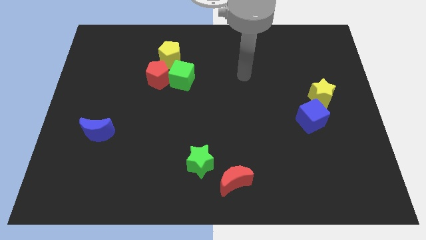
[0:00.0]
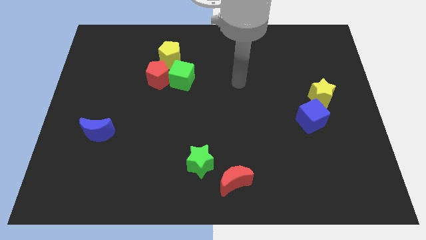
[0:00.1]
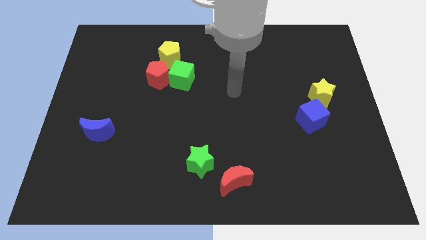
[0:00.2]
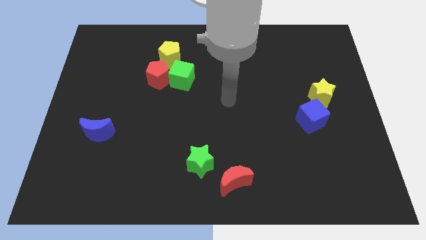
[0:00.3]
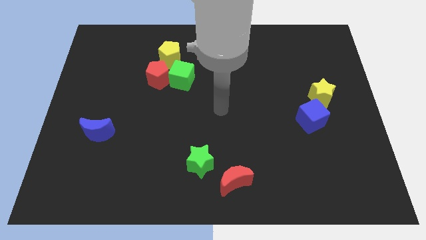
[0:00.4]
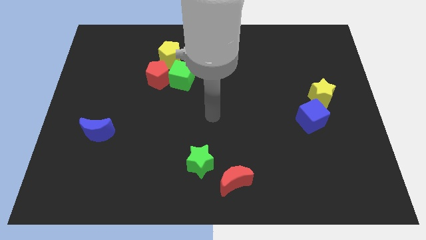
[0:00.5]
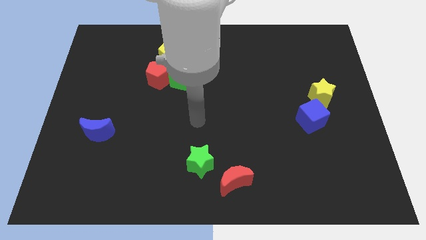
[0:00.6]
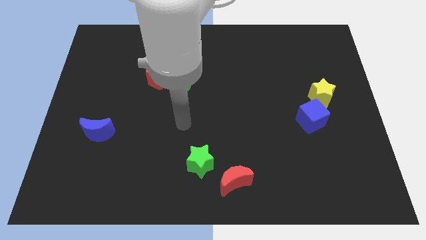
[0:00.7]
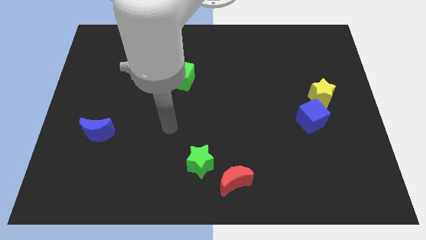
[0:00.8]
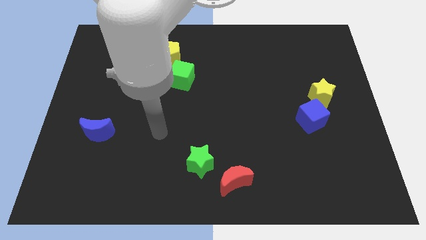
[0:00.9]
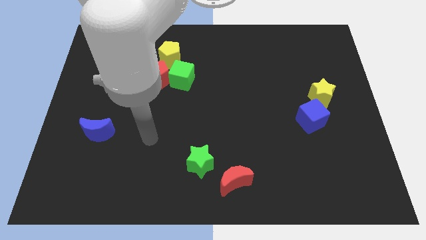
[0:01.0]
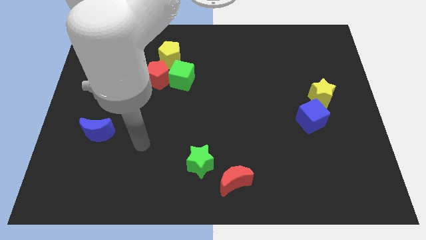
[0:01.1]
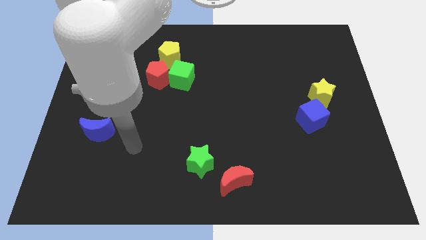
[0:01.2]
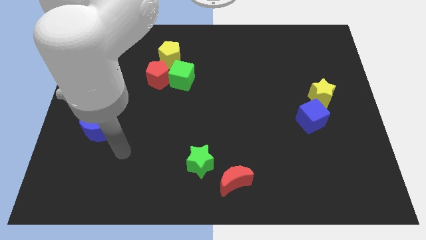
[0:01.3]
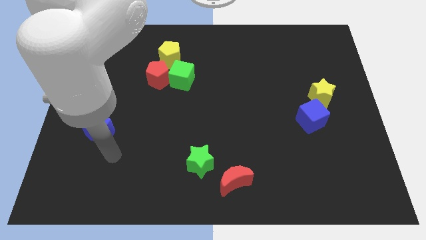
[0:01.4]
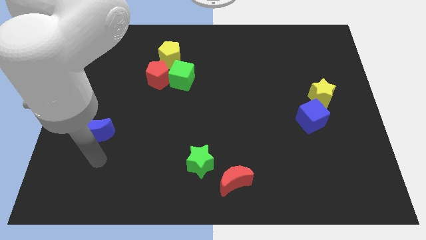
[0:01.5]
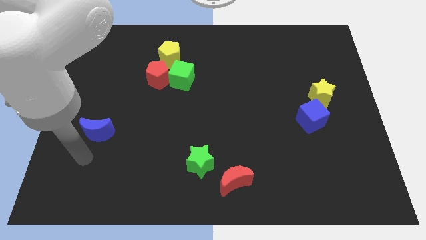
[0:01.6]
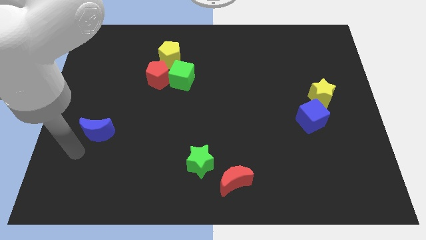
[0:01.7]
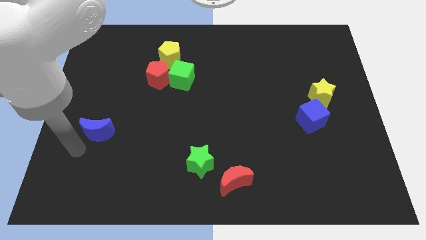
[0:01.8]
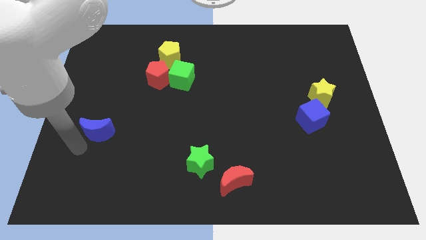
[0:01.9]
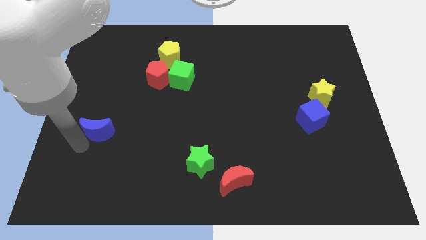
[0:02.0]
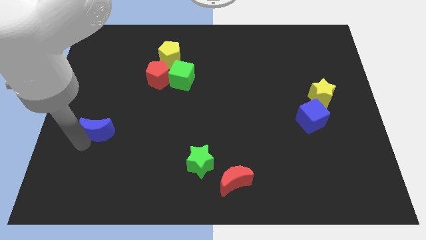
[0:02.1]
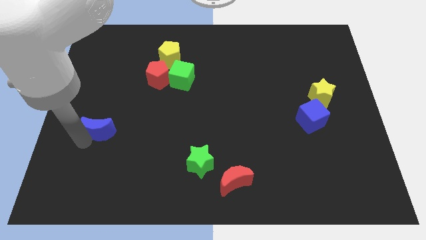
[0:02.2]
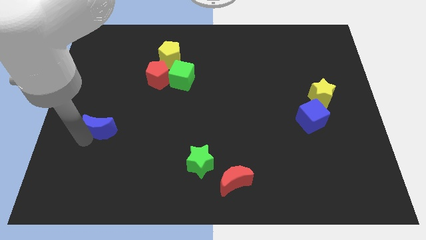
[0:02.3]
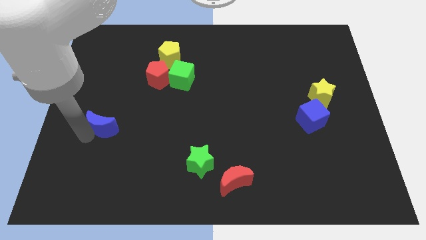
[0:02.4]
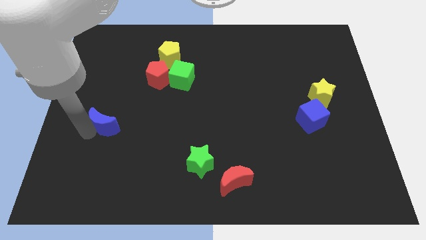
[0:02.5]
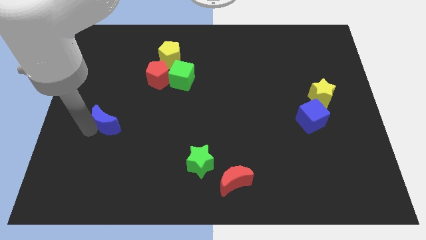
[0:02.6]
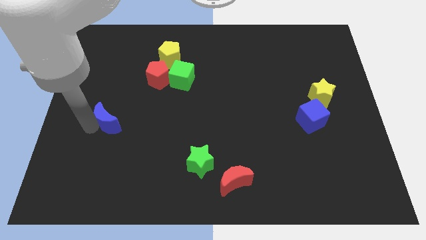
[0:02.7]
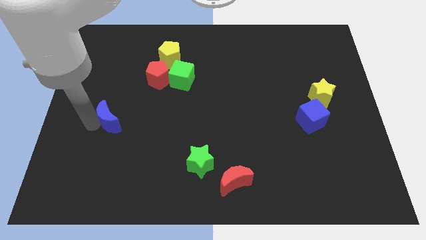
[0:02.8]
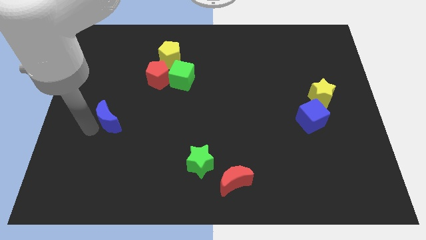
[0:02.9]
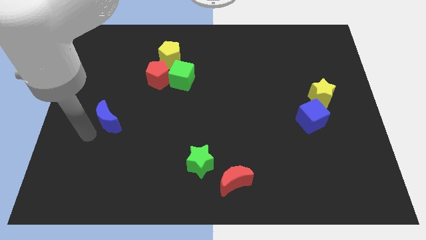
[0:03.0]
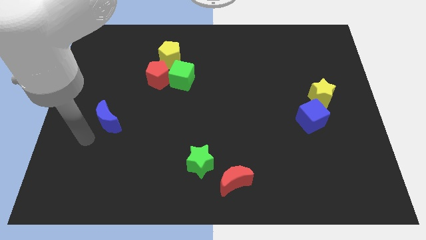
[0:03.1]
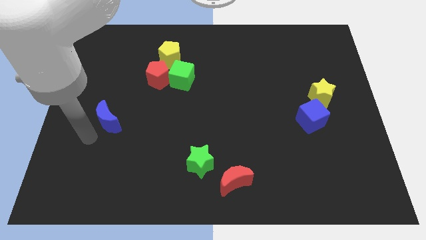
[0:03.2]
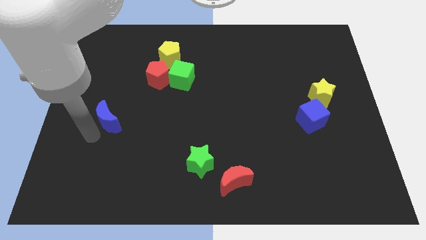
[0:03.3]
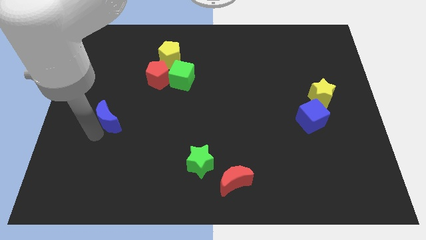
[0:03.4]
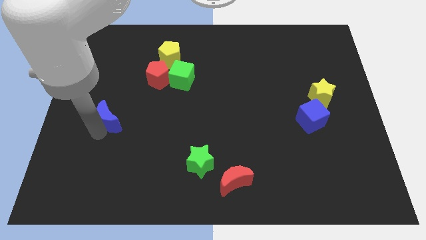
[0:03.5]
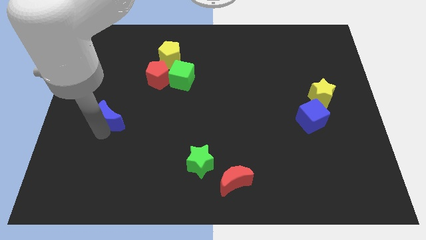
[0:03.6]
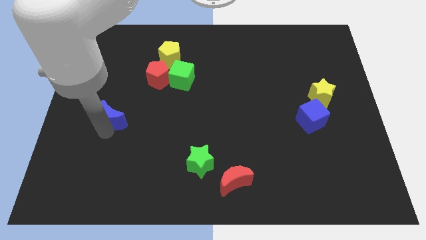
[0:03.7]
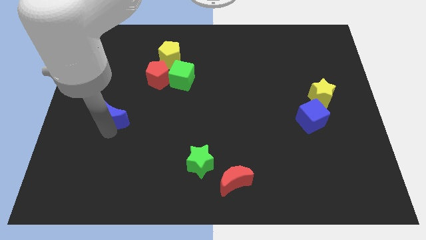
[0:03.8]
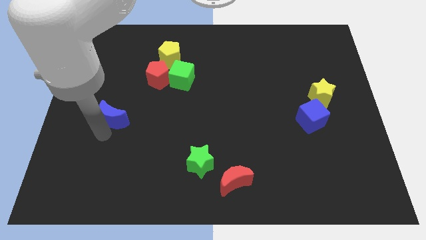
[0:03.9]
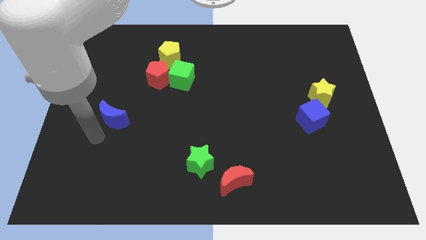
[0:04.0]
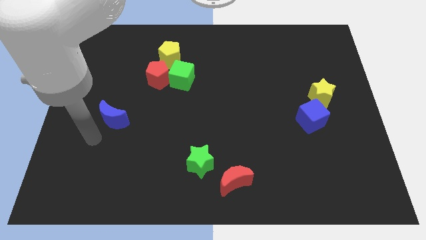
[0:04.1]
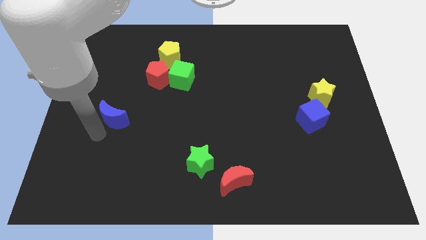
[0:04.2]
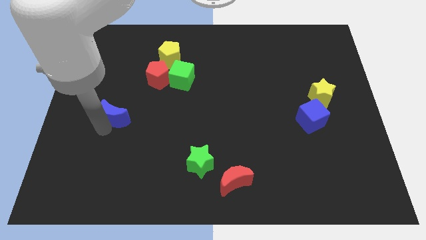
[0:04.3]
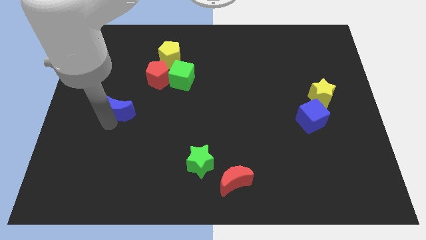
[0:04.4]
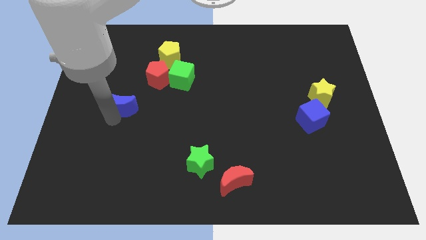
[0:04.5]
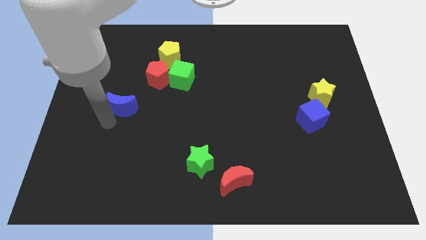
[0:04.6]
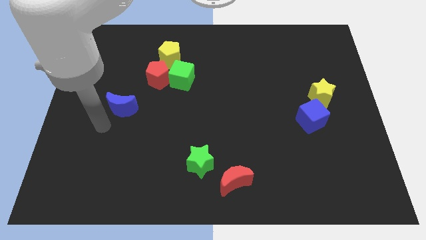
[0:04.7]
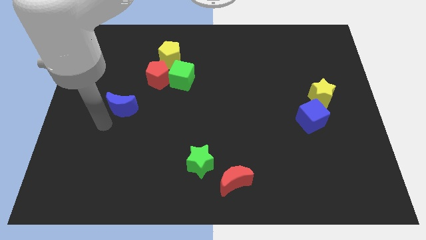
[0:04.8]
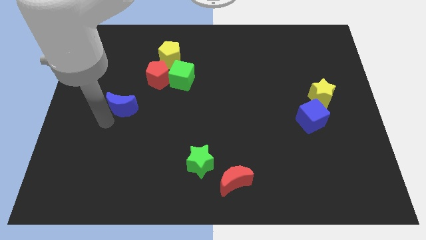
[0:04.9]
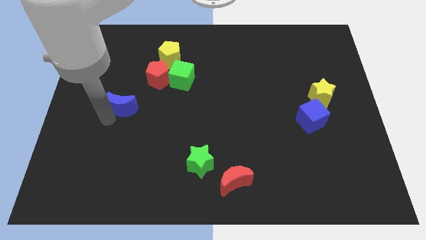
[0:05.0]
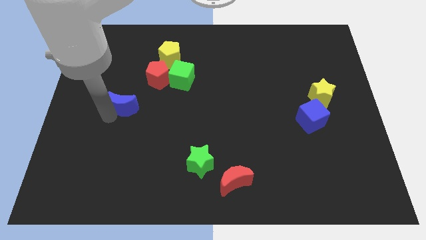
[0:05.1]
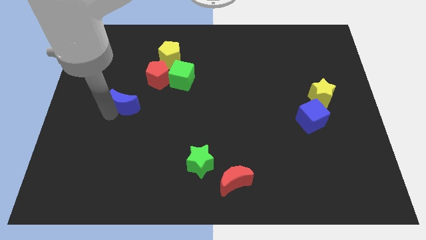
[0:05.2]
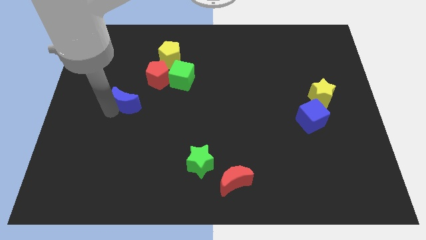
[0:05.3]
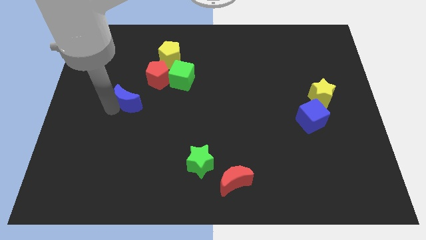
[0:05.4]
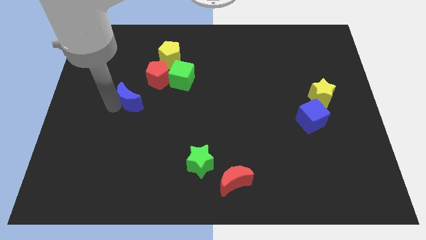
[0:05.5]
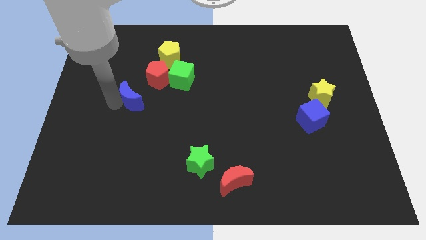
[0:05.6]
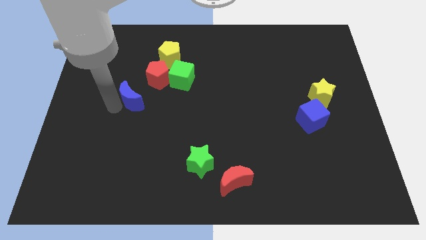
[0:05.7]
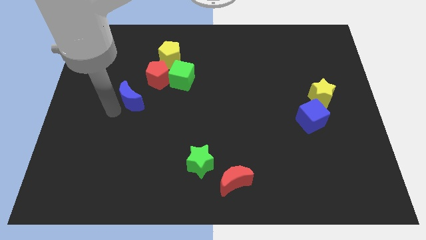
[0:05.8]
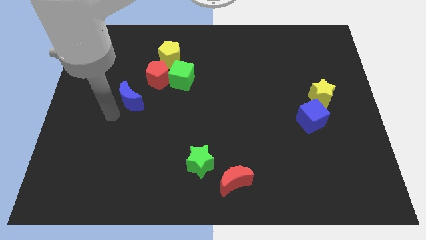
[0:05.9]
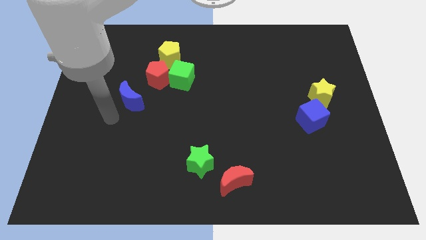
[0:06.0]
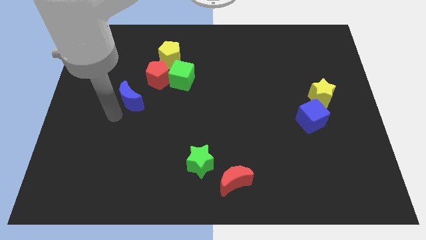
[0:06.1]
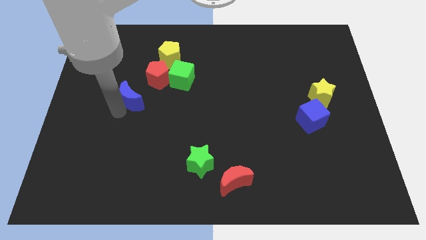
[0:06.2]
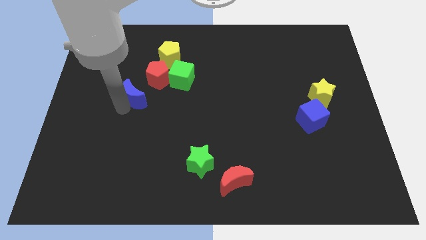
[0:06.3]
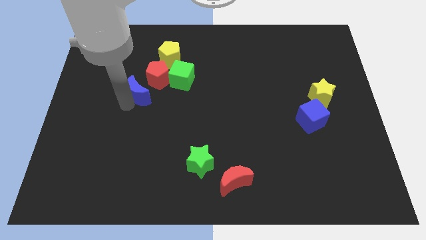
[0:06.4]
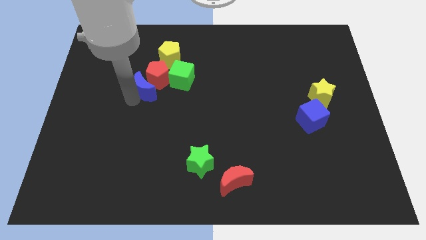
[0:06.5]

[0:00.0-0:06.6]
slide the blue moon close to the red pentagon
